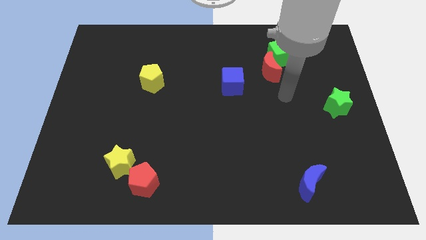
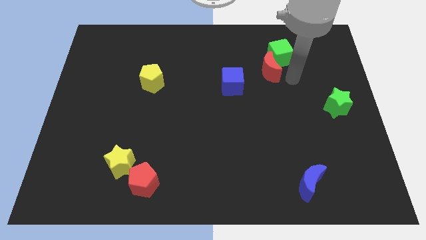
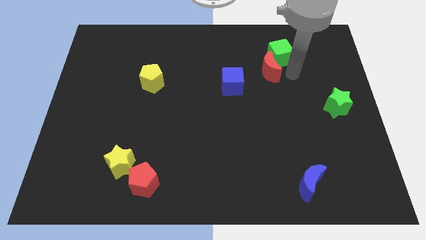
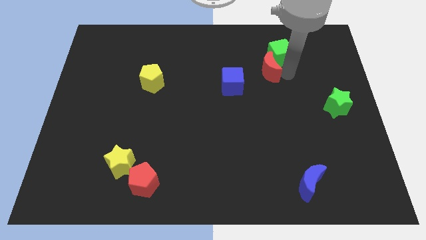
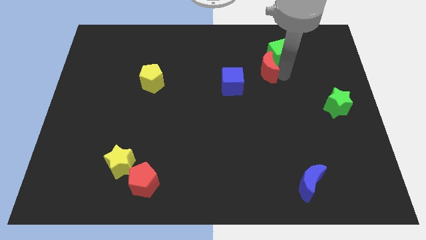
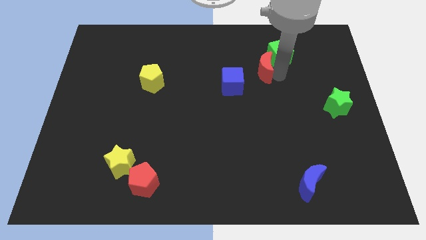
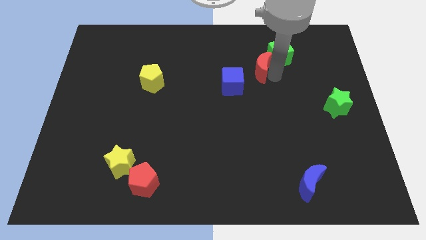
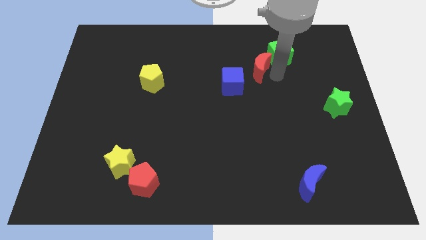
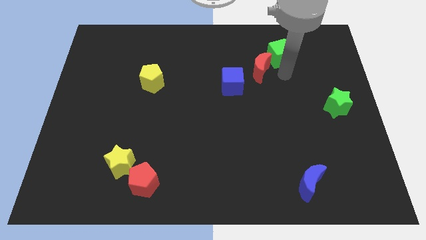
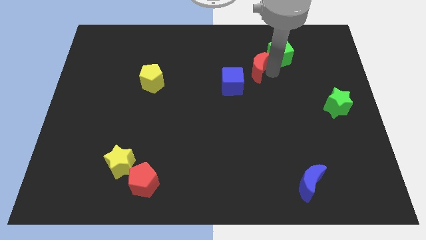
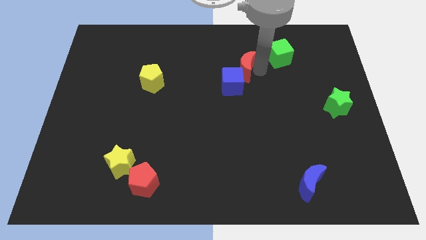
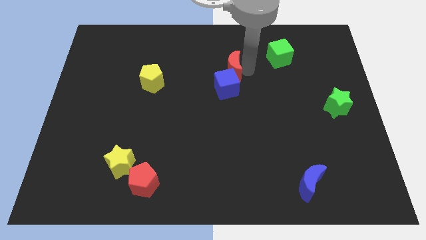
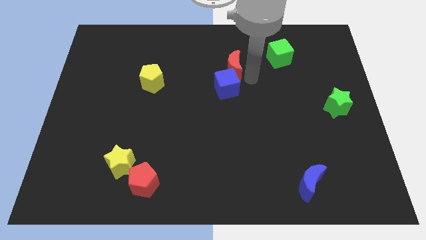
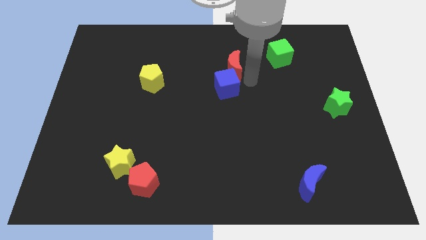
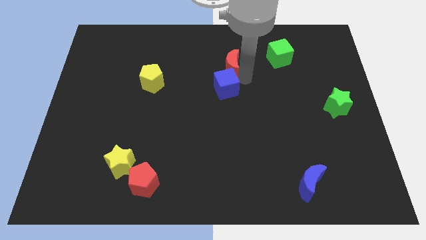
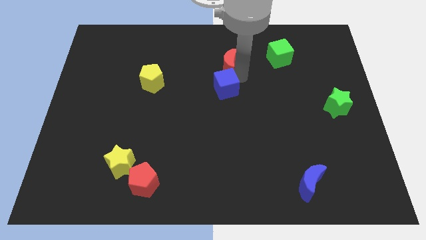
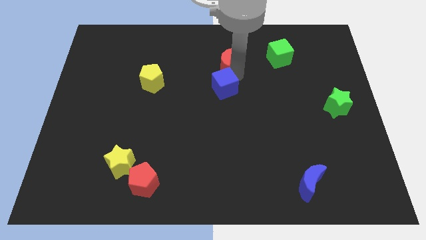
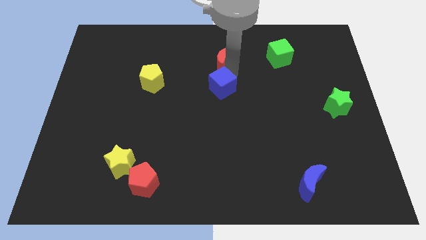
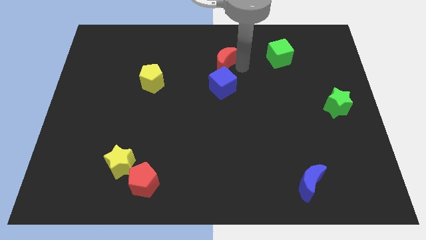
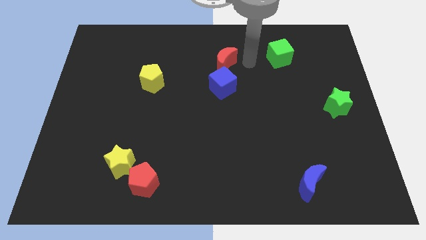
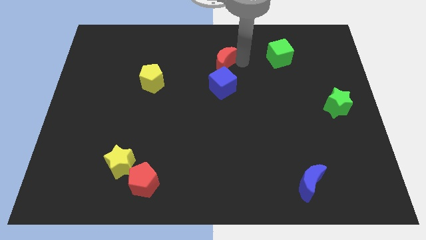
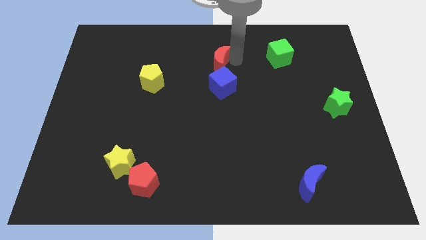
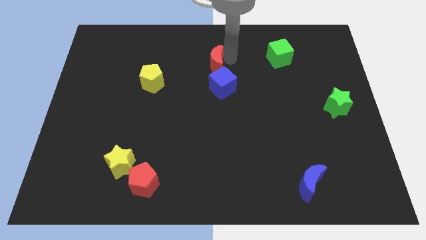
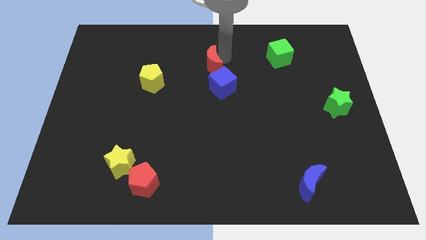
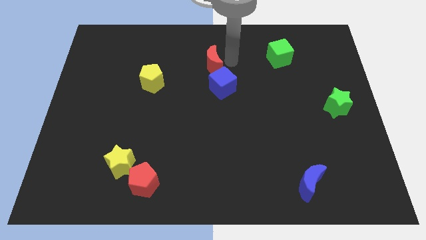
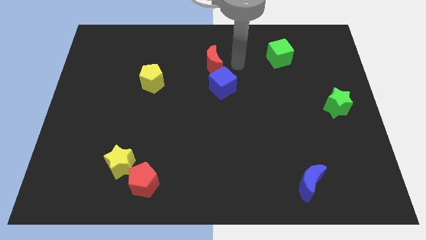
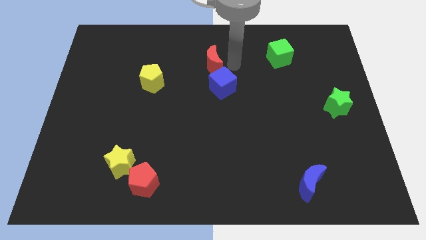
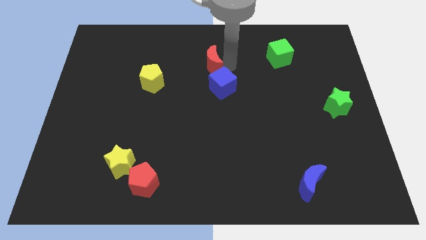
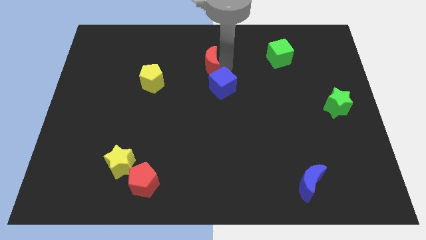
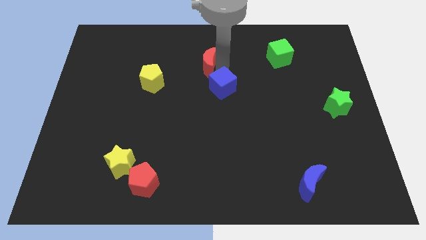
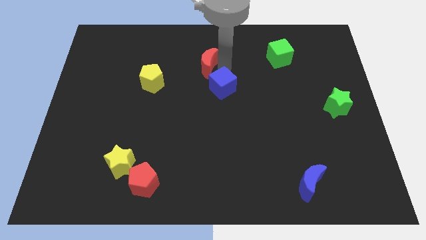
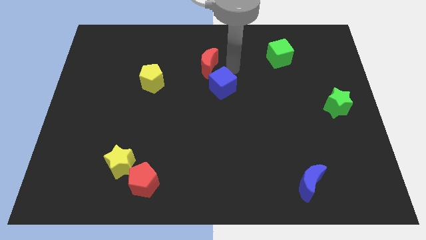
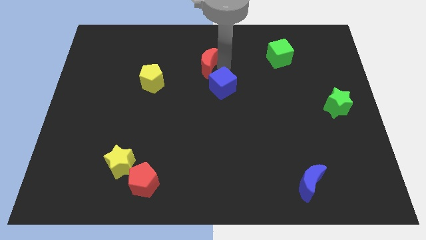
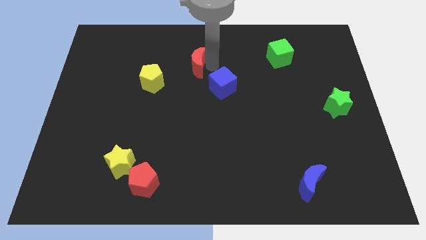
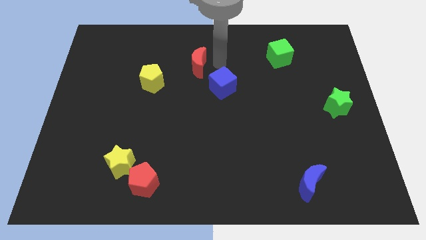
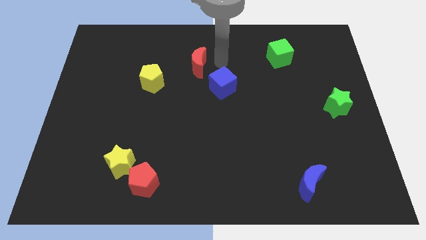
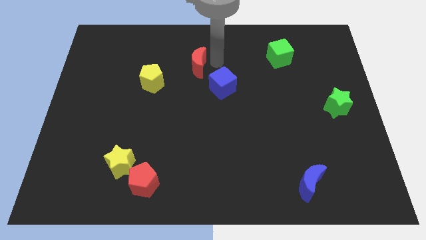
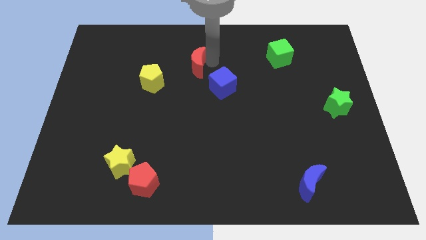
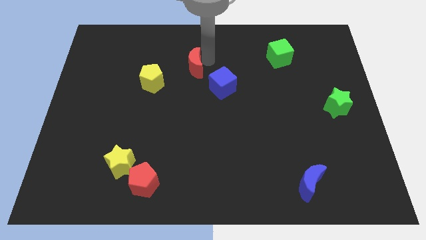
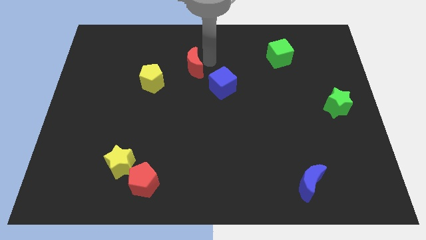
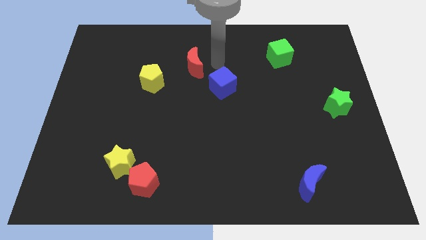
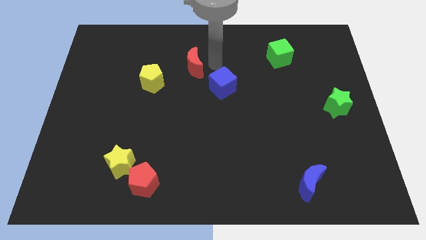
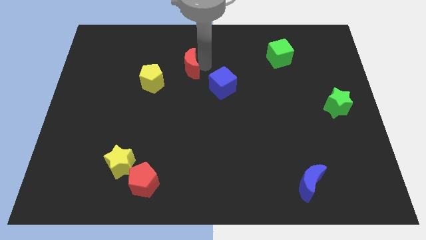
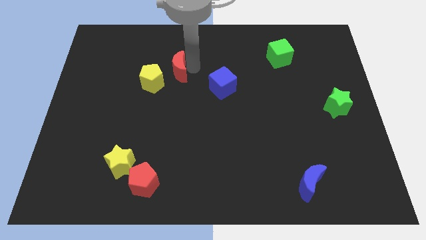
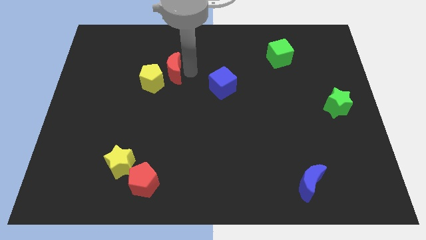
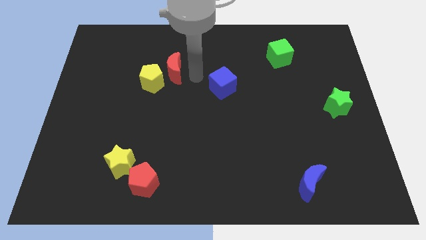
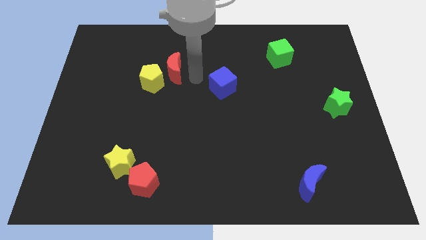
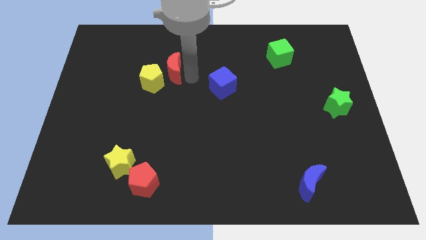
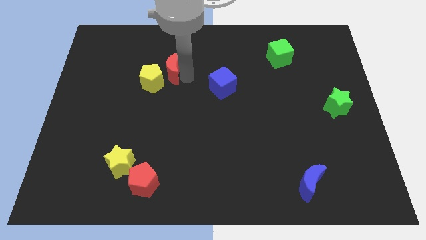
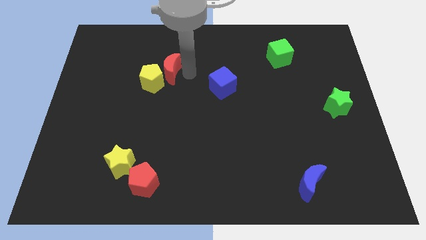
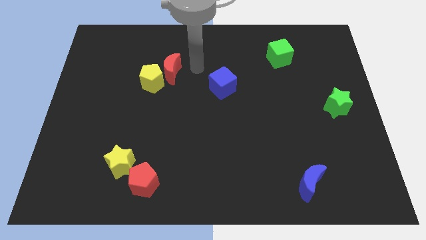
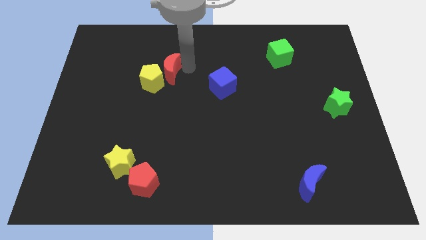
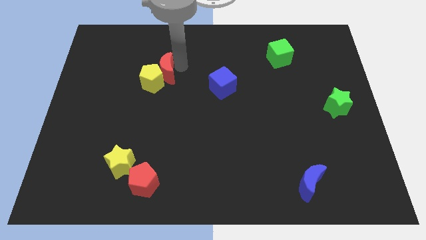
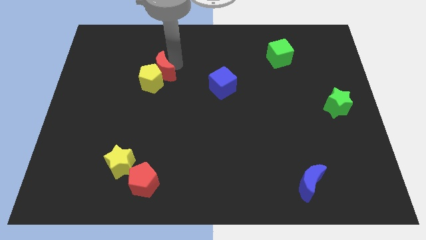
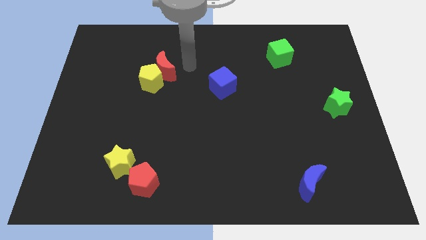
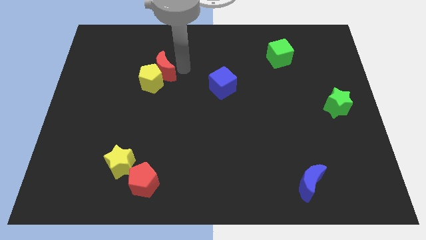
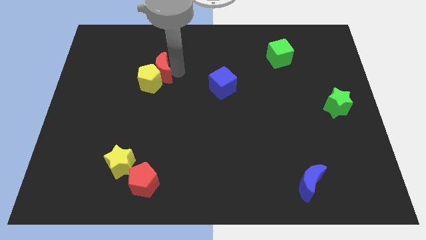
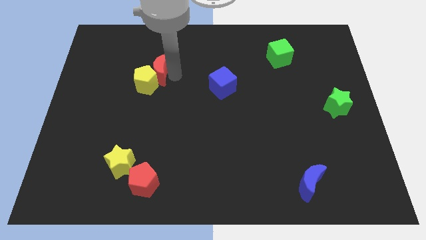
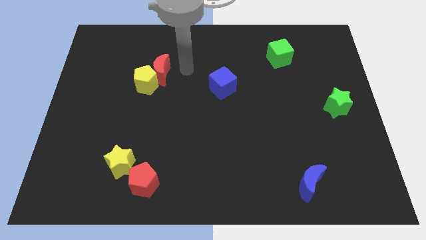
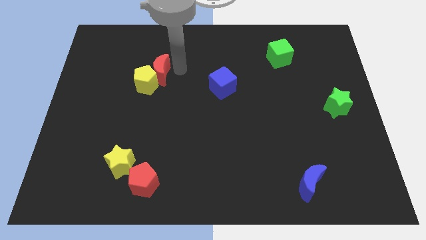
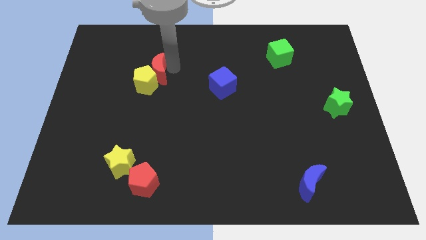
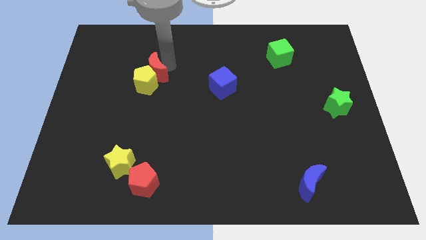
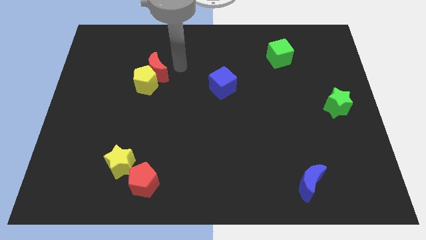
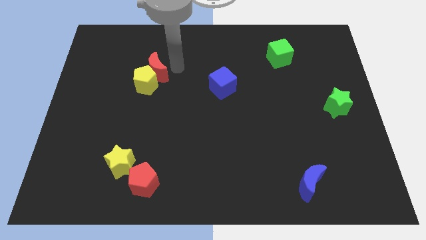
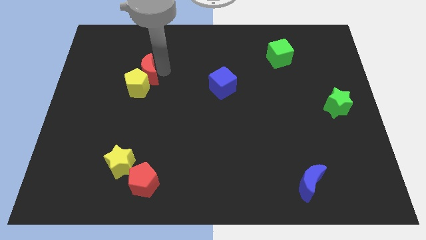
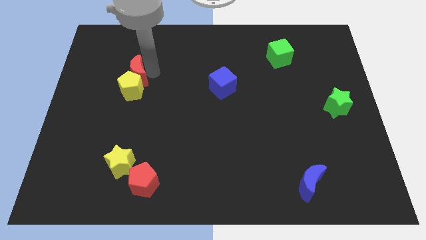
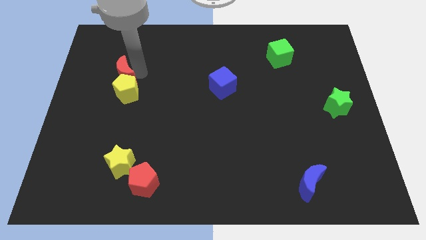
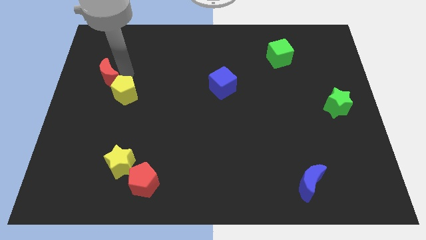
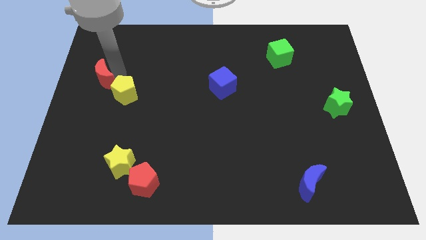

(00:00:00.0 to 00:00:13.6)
push the red moon to the center left

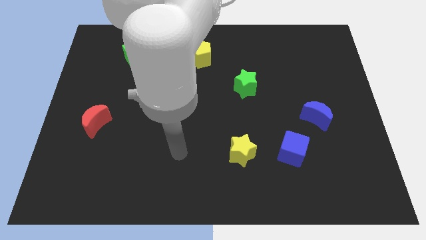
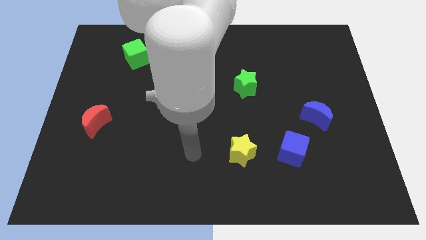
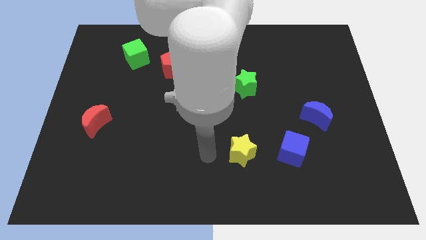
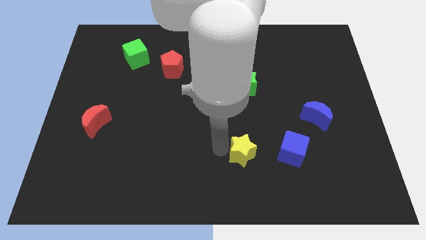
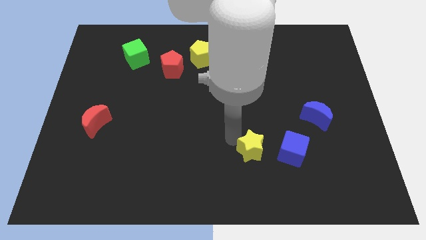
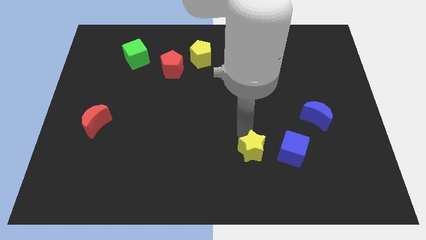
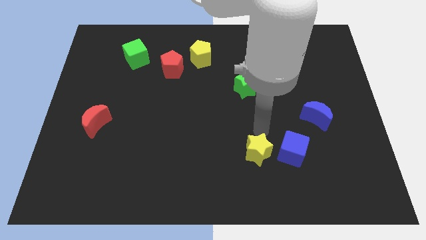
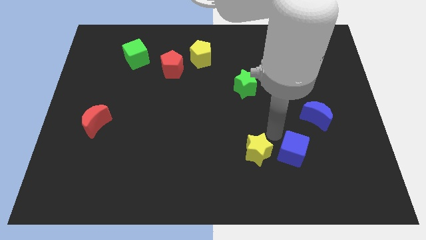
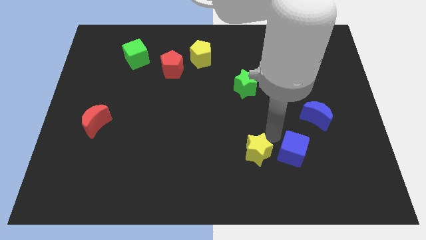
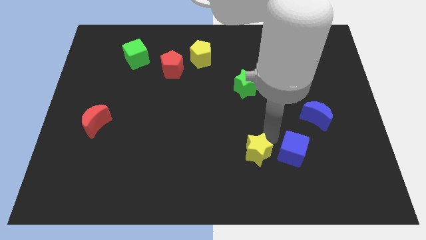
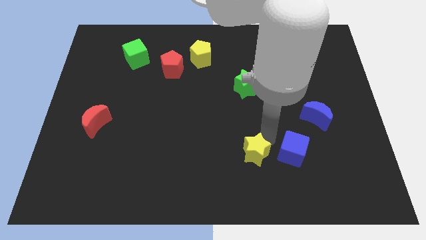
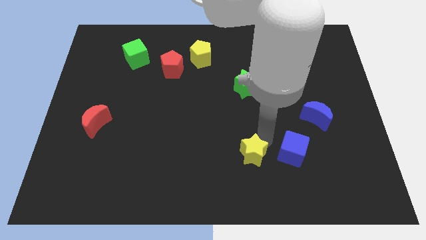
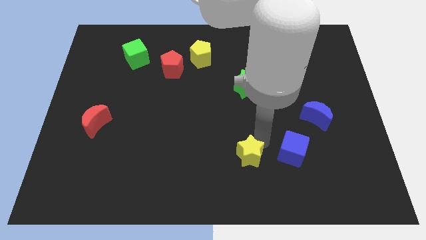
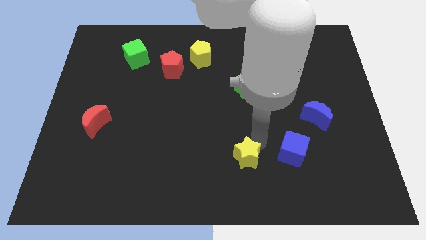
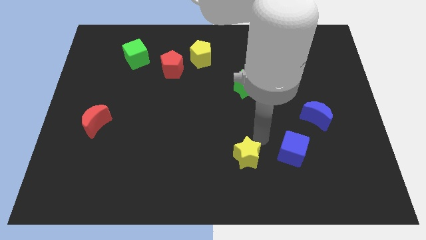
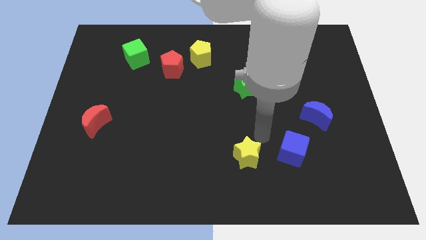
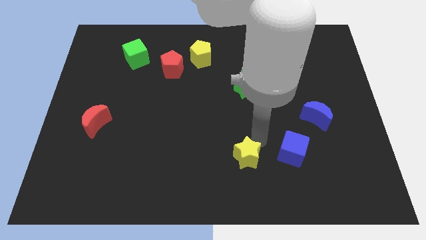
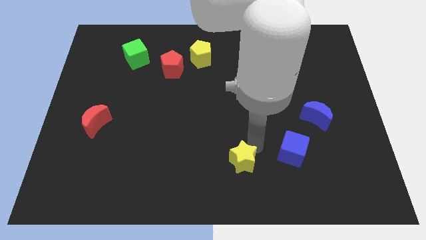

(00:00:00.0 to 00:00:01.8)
put the yellow star to the bottom side
